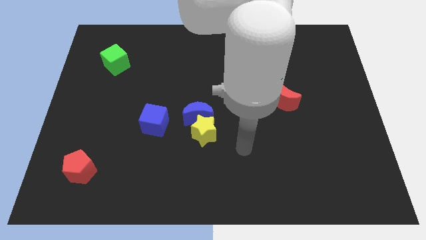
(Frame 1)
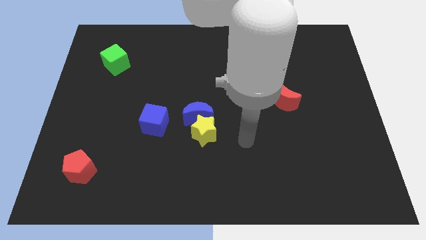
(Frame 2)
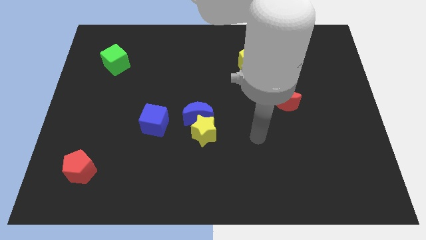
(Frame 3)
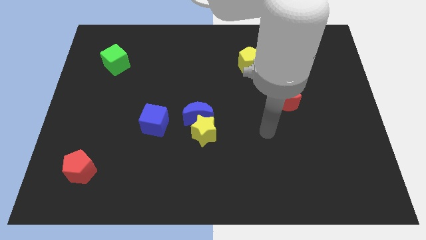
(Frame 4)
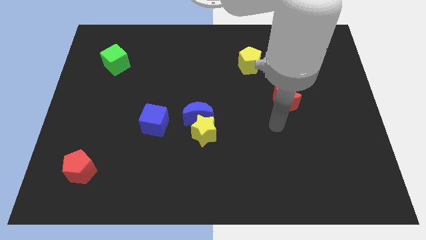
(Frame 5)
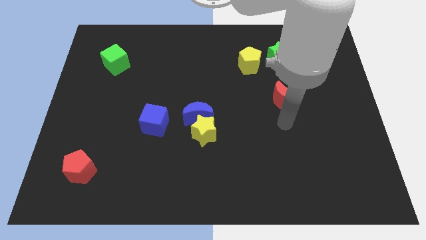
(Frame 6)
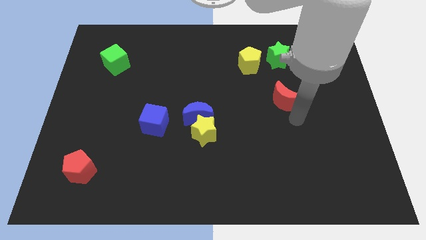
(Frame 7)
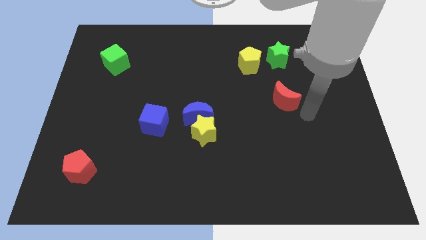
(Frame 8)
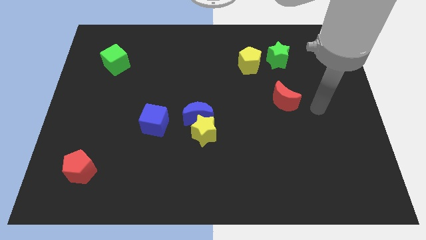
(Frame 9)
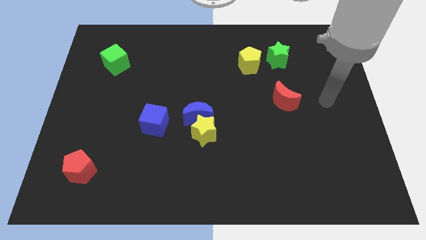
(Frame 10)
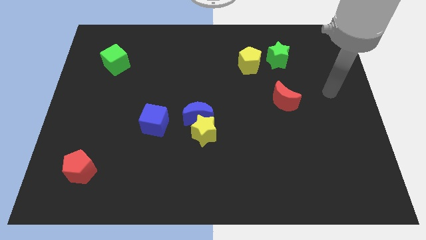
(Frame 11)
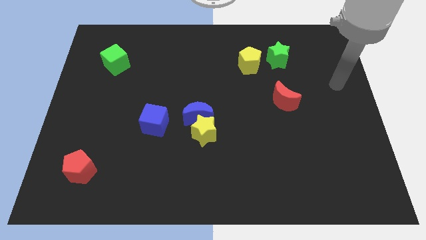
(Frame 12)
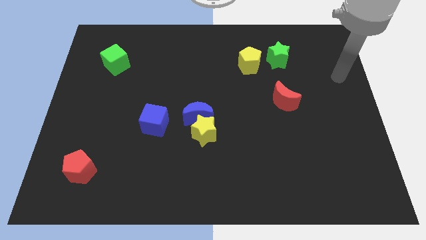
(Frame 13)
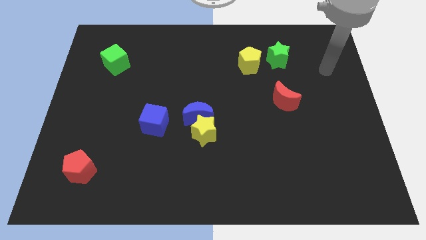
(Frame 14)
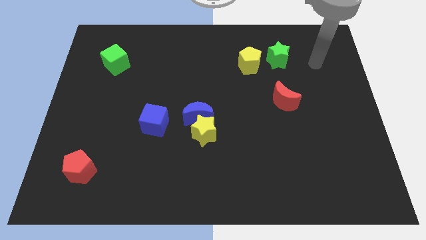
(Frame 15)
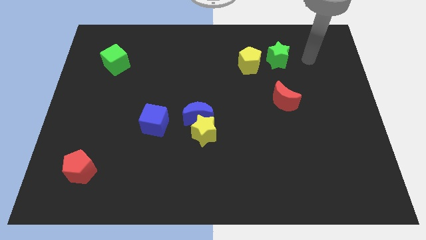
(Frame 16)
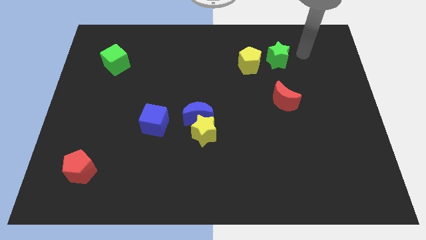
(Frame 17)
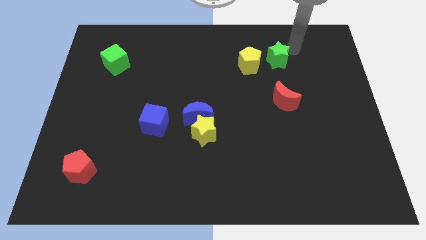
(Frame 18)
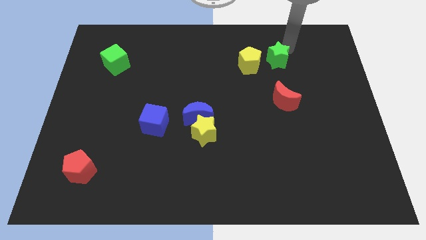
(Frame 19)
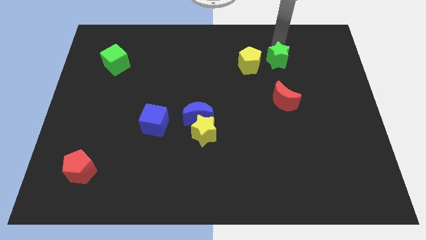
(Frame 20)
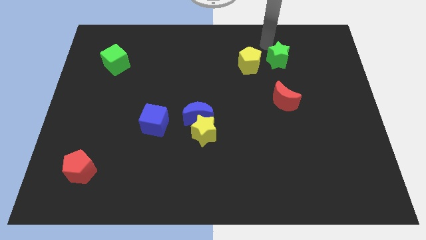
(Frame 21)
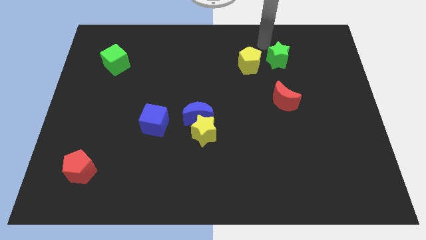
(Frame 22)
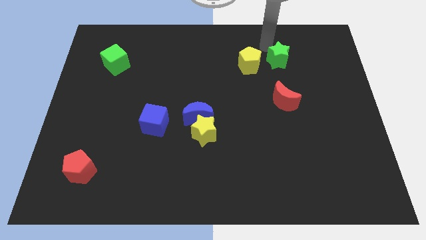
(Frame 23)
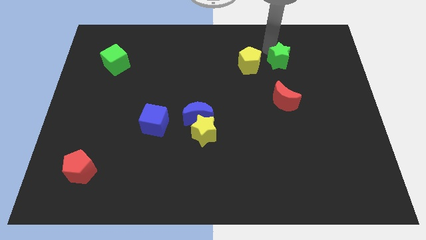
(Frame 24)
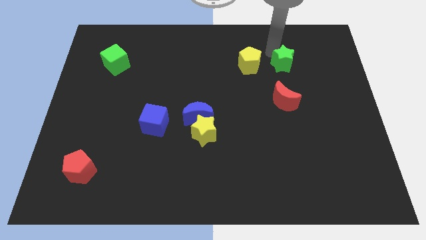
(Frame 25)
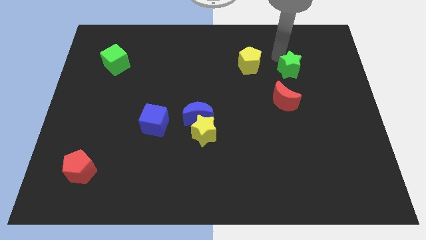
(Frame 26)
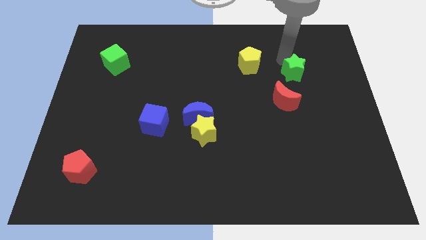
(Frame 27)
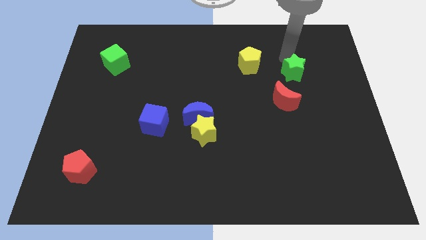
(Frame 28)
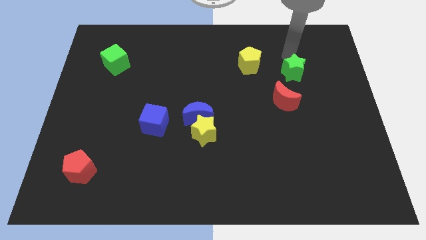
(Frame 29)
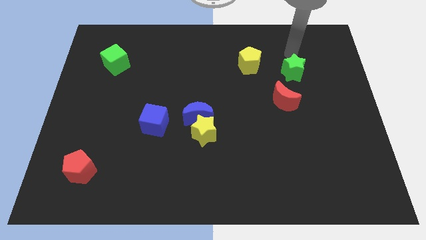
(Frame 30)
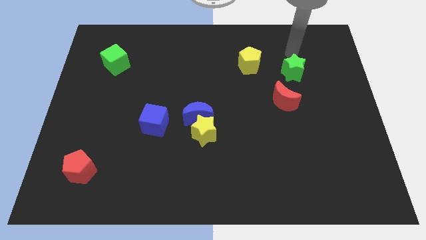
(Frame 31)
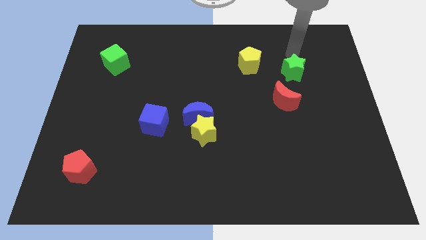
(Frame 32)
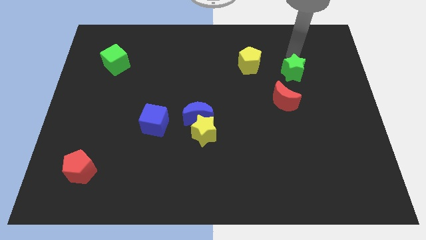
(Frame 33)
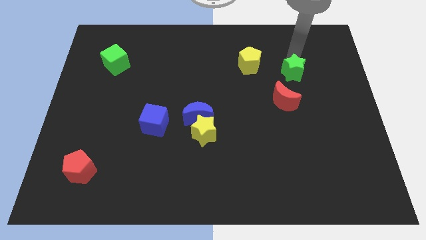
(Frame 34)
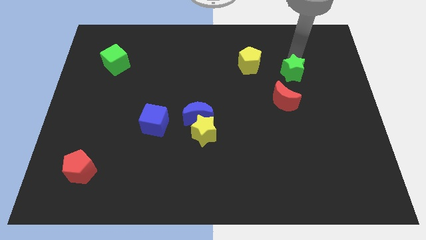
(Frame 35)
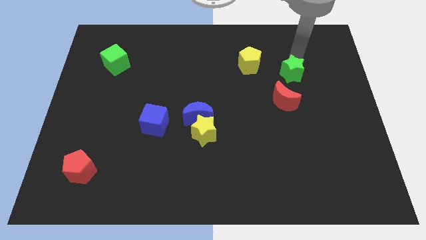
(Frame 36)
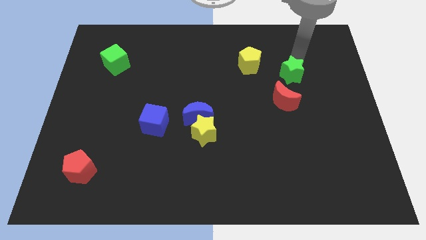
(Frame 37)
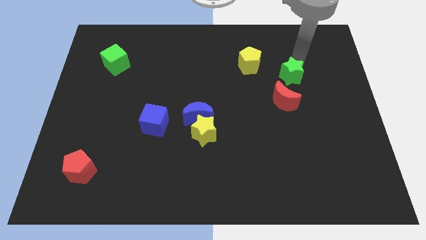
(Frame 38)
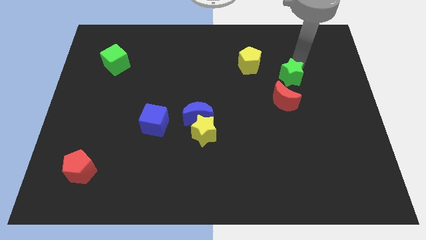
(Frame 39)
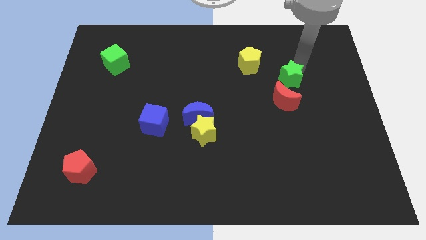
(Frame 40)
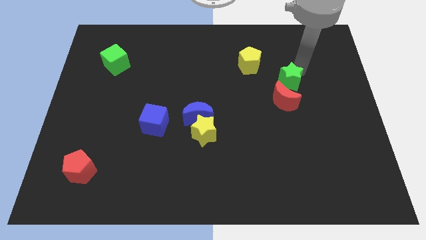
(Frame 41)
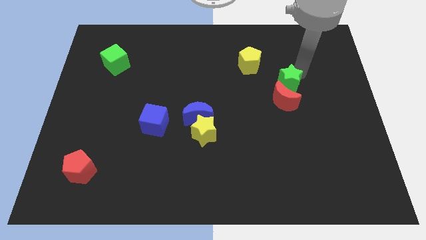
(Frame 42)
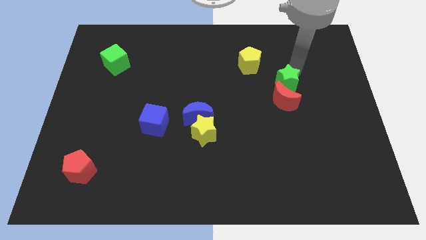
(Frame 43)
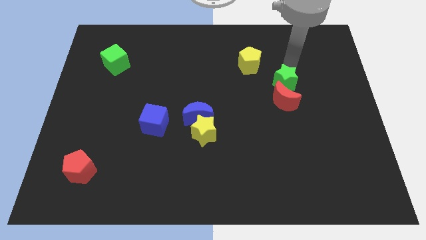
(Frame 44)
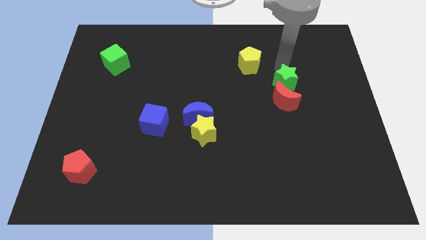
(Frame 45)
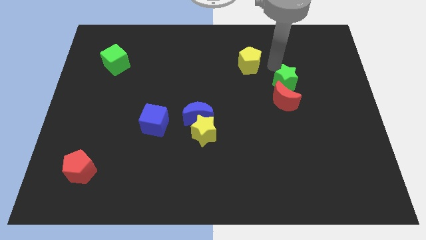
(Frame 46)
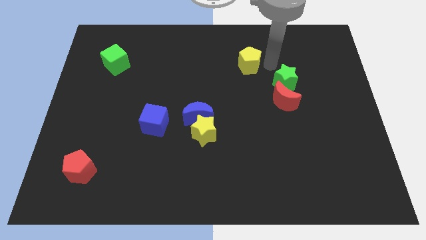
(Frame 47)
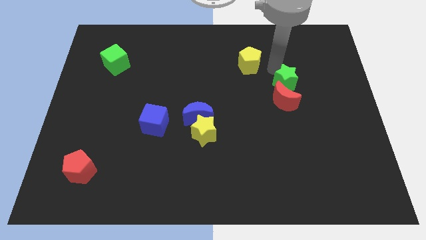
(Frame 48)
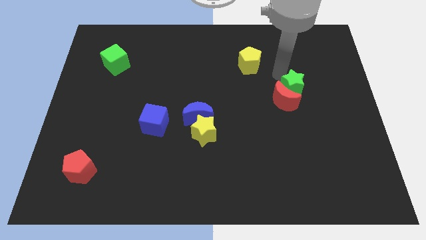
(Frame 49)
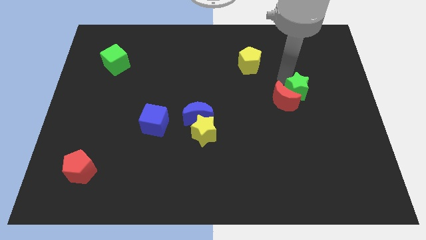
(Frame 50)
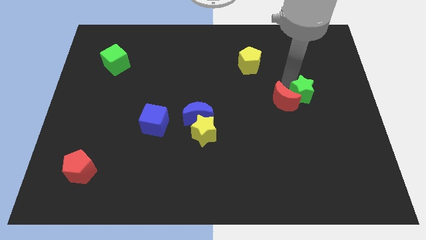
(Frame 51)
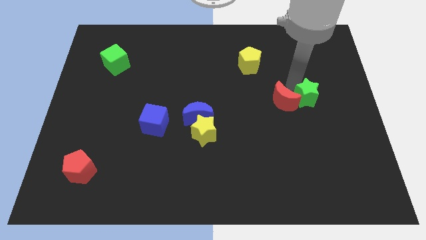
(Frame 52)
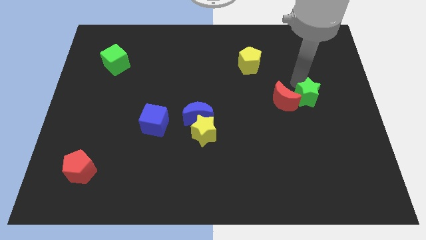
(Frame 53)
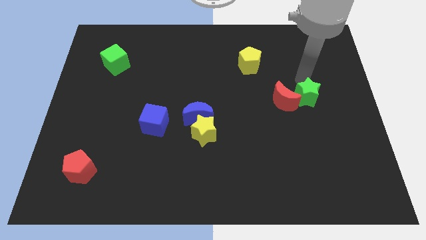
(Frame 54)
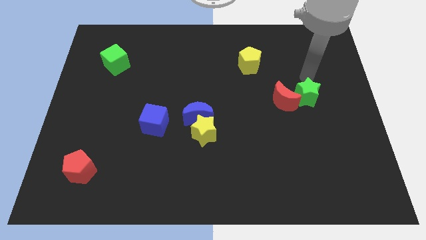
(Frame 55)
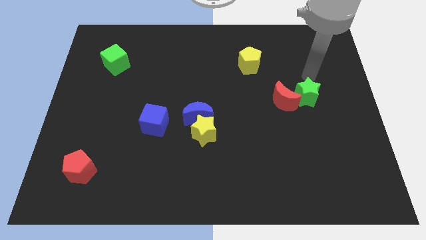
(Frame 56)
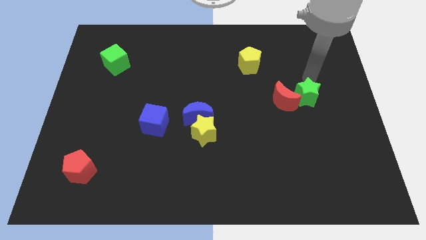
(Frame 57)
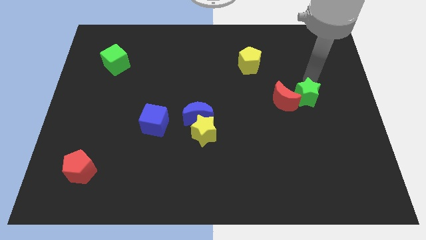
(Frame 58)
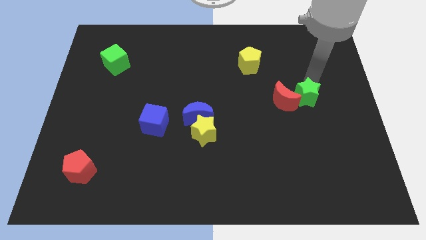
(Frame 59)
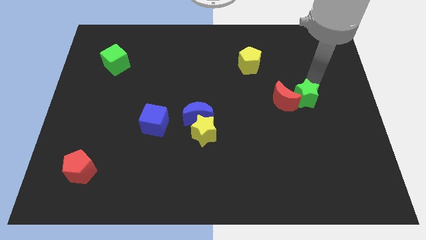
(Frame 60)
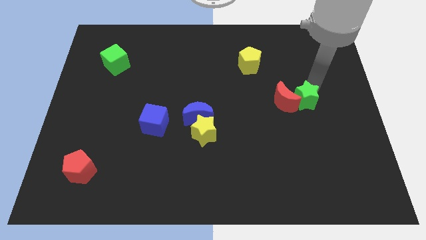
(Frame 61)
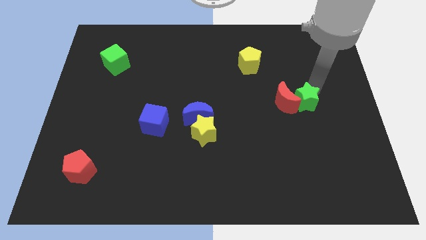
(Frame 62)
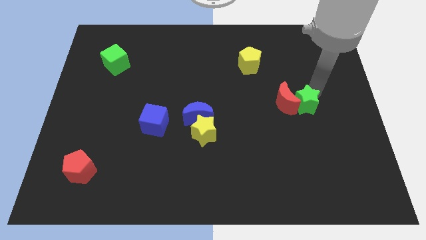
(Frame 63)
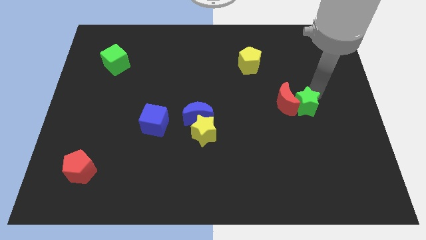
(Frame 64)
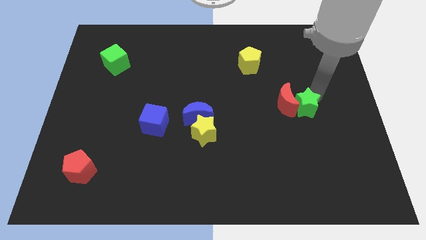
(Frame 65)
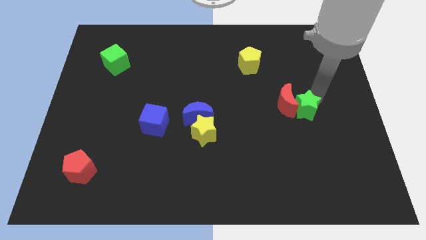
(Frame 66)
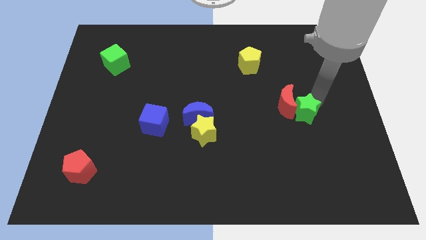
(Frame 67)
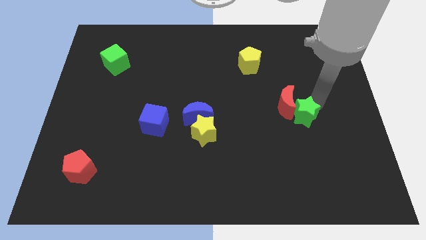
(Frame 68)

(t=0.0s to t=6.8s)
slide the green star to the bottom of the red moon

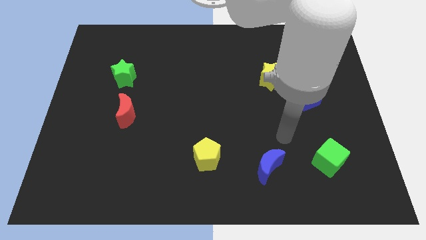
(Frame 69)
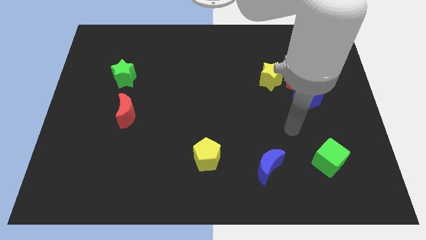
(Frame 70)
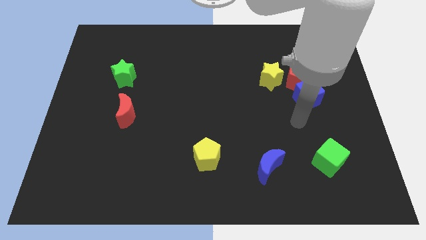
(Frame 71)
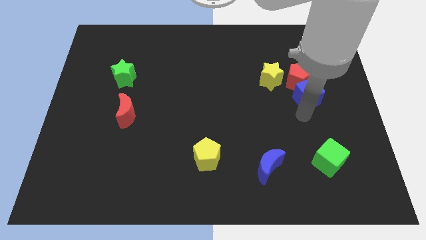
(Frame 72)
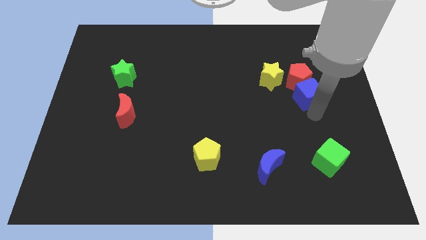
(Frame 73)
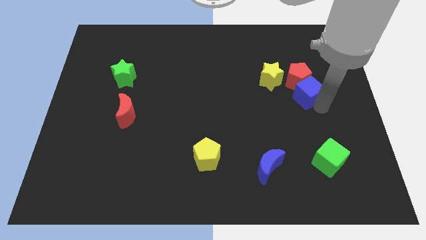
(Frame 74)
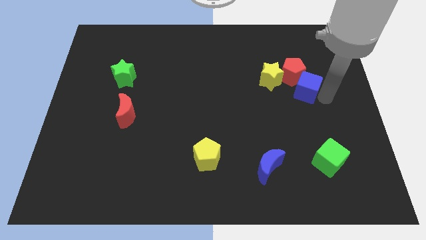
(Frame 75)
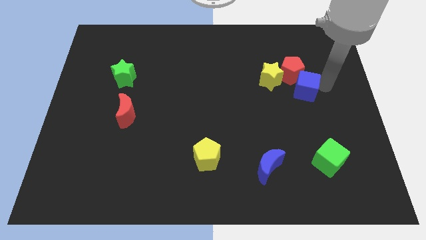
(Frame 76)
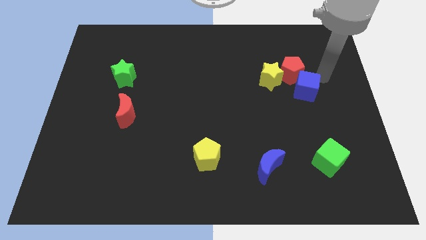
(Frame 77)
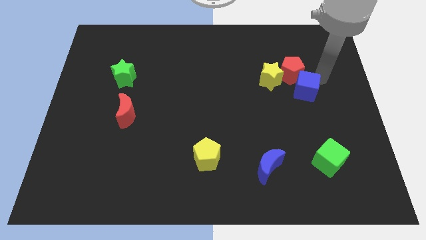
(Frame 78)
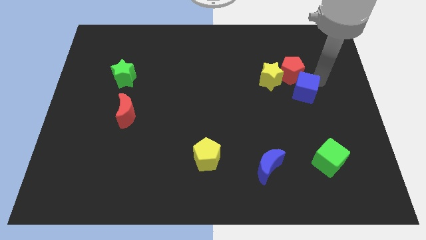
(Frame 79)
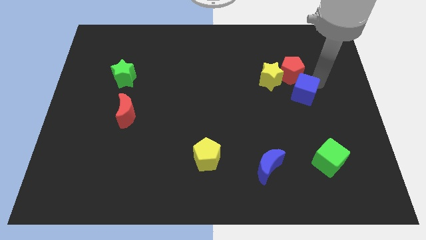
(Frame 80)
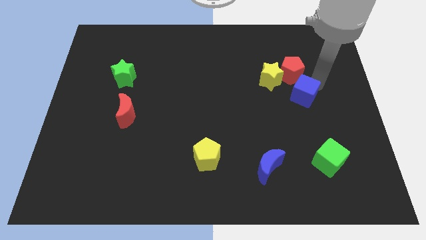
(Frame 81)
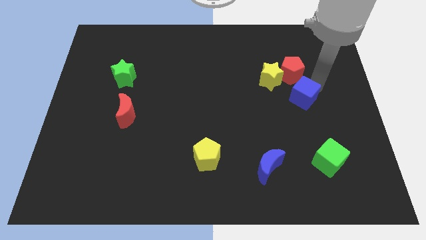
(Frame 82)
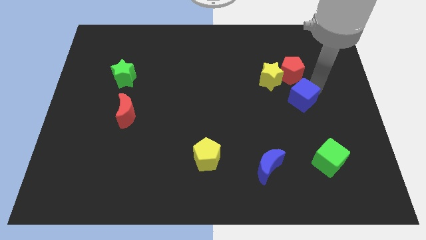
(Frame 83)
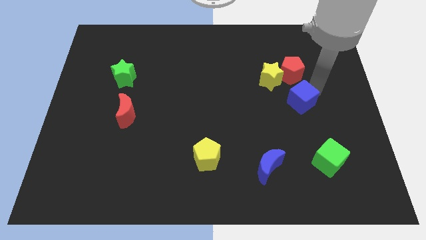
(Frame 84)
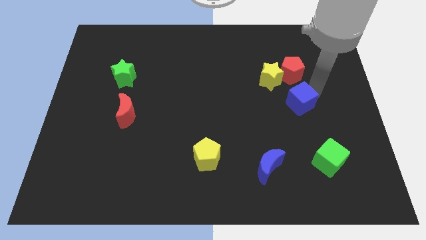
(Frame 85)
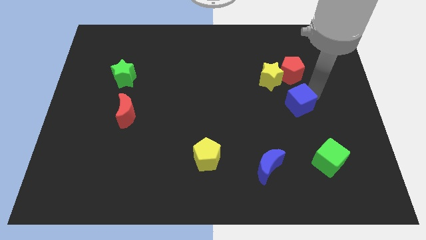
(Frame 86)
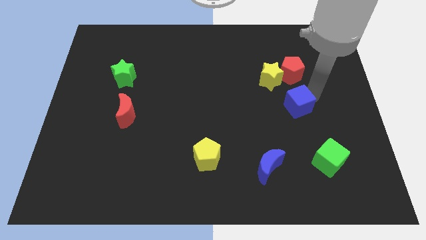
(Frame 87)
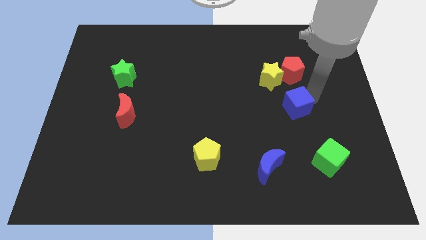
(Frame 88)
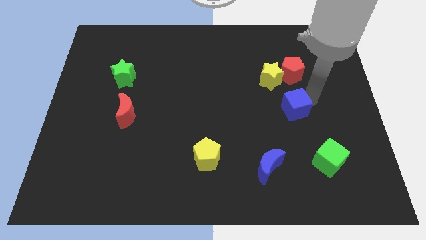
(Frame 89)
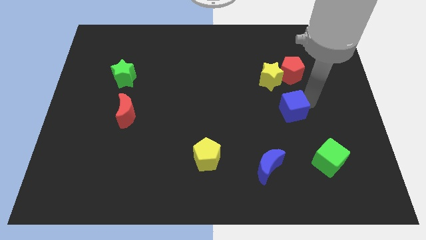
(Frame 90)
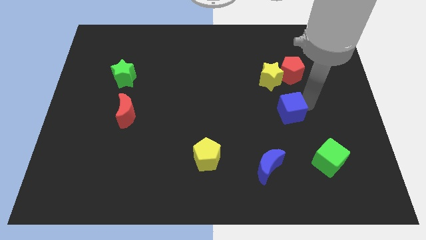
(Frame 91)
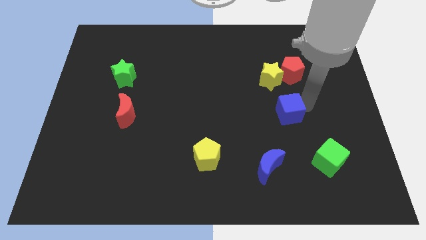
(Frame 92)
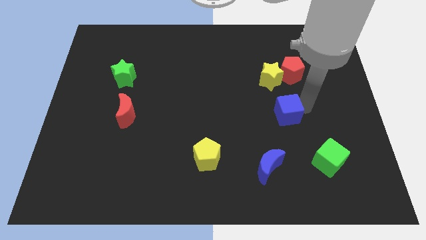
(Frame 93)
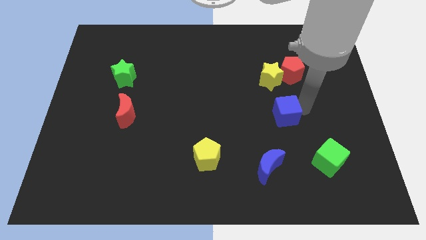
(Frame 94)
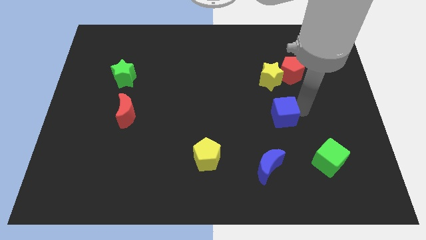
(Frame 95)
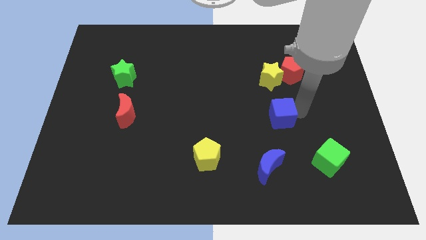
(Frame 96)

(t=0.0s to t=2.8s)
slide the blue cube to the top of the blue moon
